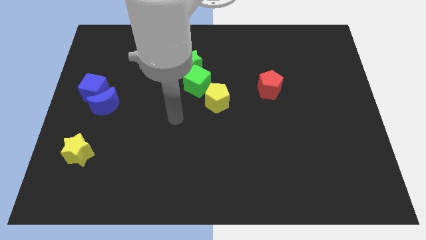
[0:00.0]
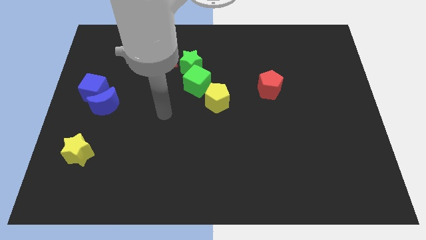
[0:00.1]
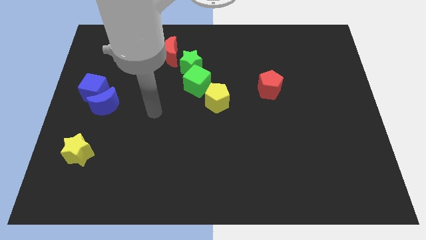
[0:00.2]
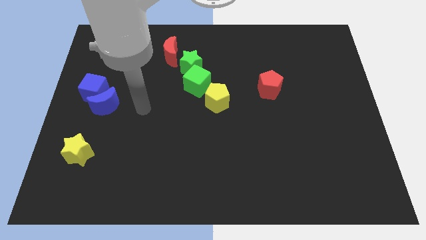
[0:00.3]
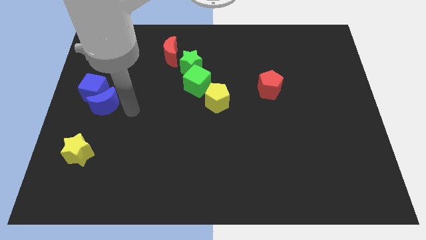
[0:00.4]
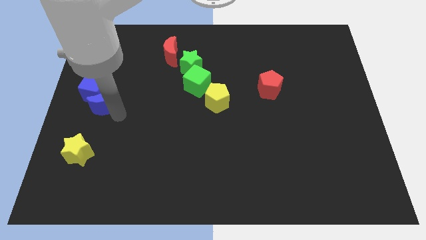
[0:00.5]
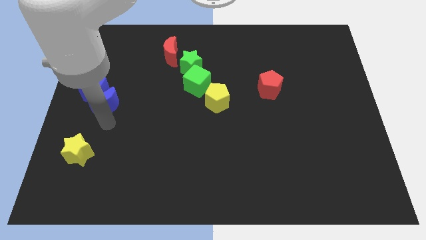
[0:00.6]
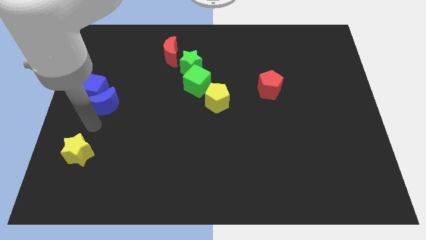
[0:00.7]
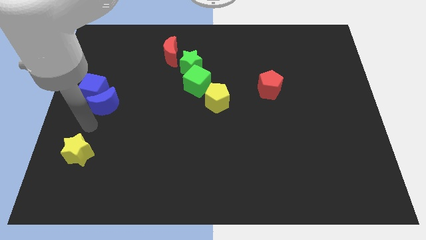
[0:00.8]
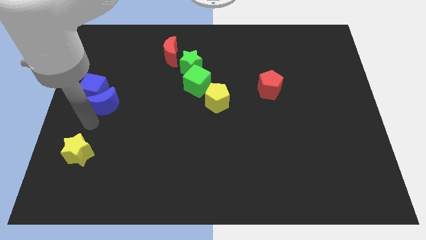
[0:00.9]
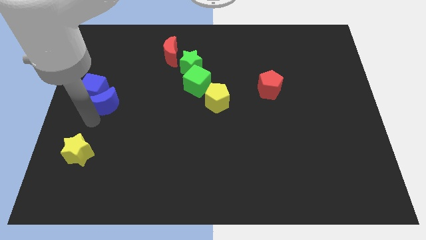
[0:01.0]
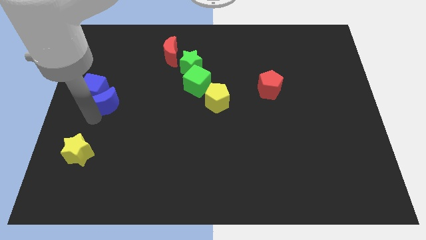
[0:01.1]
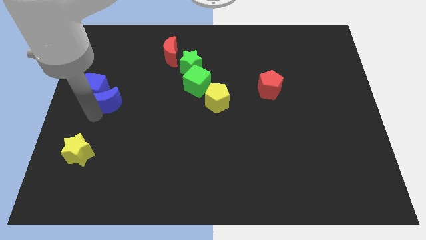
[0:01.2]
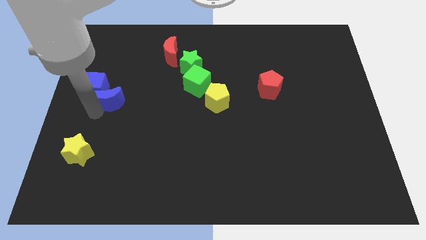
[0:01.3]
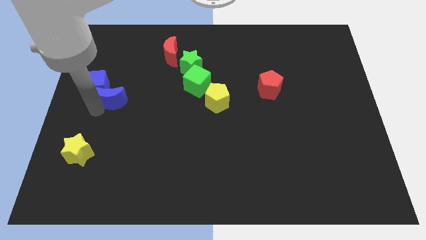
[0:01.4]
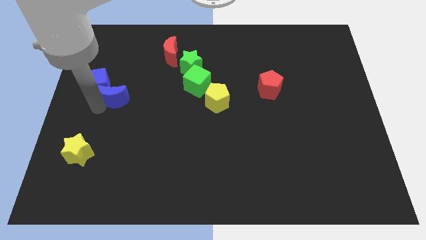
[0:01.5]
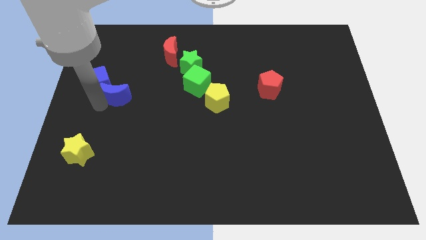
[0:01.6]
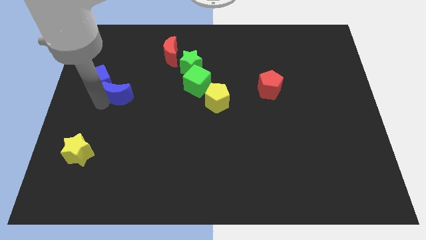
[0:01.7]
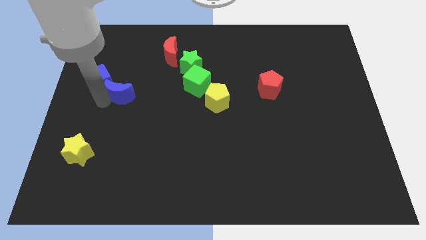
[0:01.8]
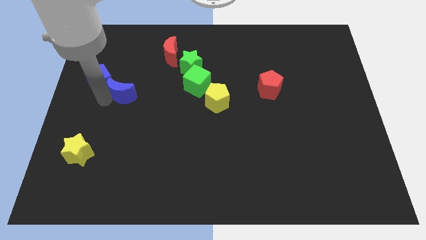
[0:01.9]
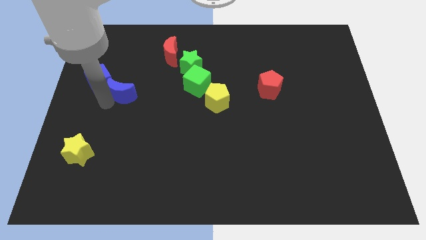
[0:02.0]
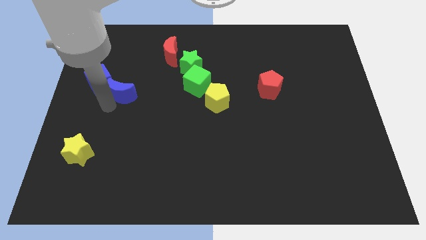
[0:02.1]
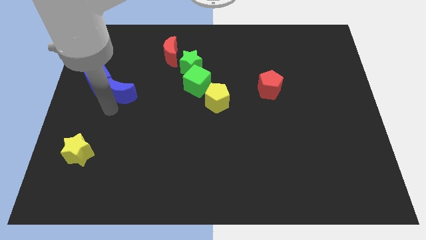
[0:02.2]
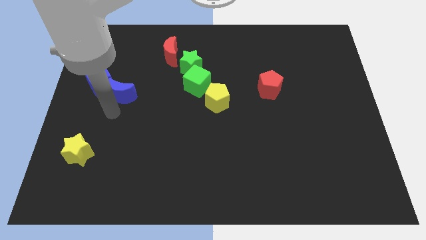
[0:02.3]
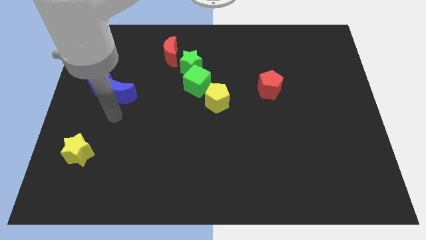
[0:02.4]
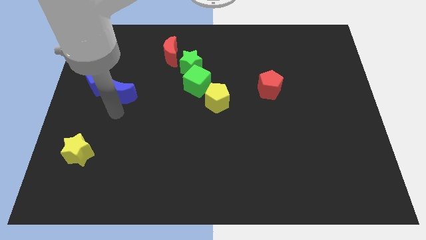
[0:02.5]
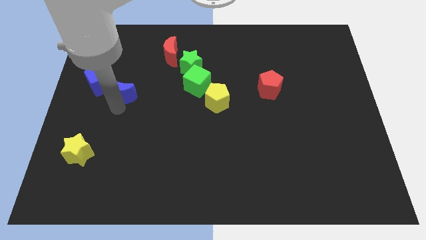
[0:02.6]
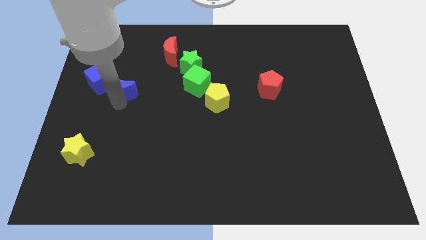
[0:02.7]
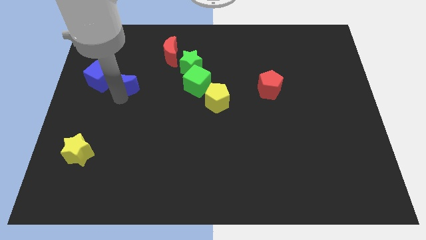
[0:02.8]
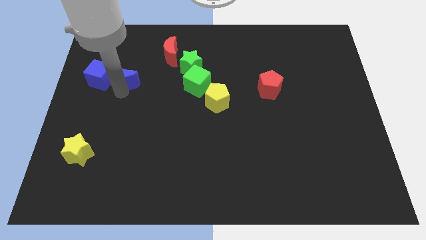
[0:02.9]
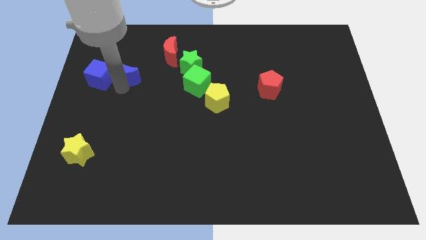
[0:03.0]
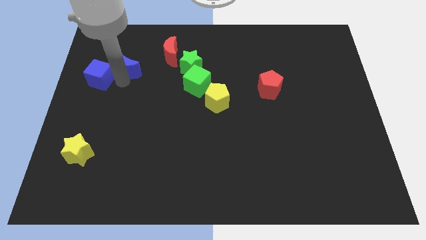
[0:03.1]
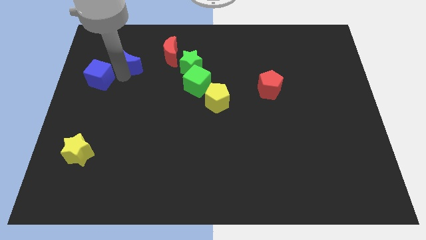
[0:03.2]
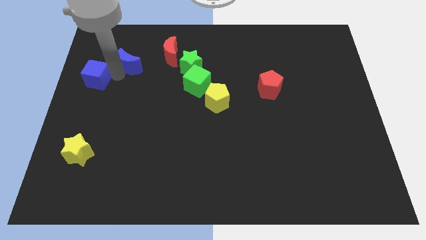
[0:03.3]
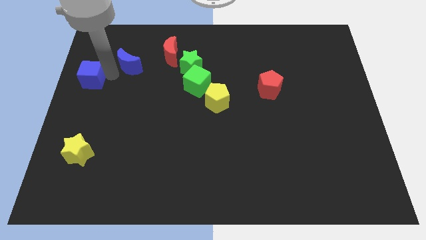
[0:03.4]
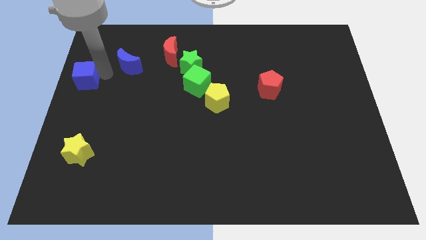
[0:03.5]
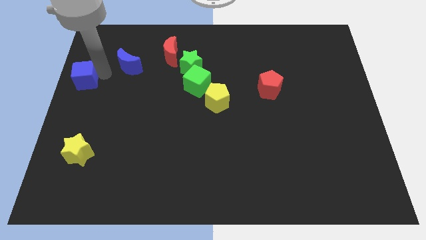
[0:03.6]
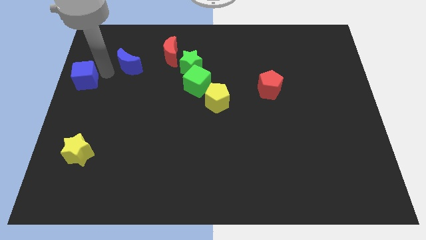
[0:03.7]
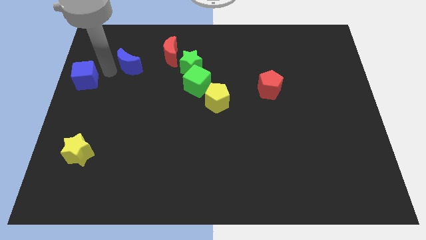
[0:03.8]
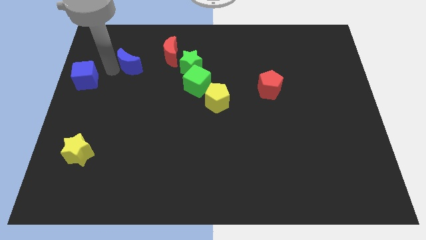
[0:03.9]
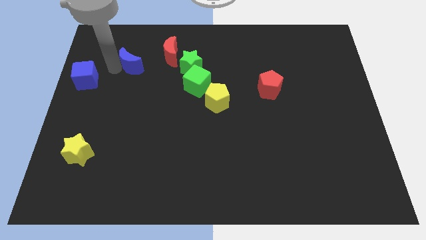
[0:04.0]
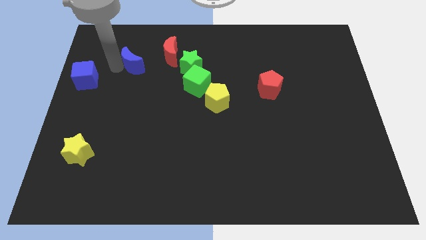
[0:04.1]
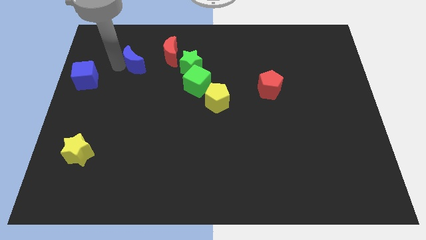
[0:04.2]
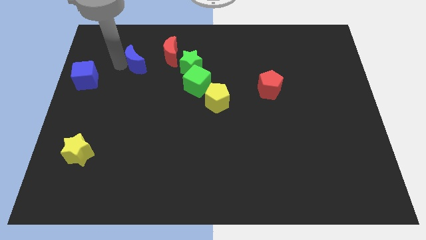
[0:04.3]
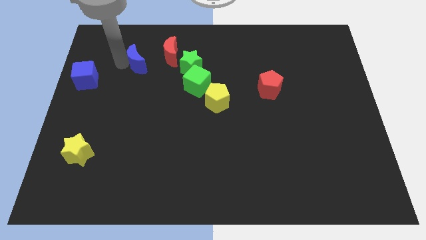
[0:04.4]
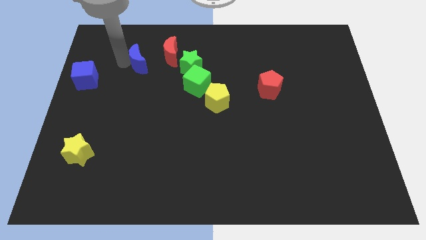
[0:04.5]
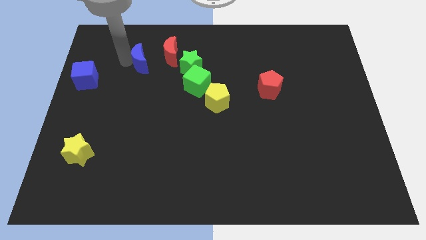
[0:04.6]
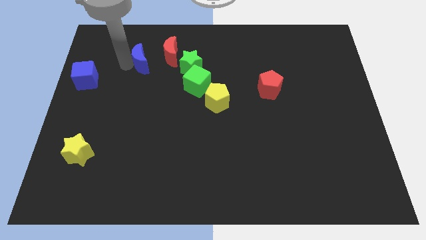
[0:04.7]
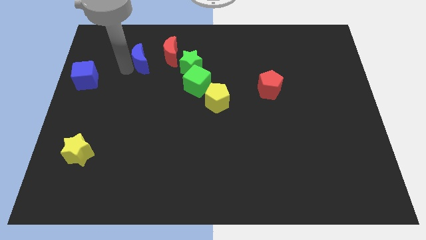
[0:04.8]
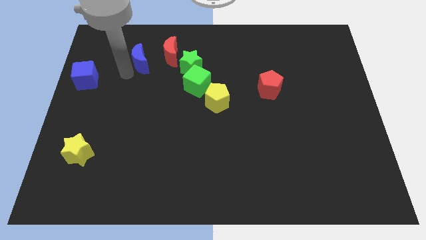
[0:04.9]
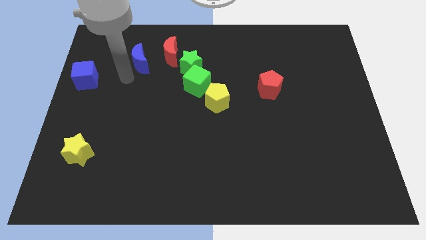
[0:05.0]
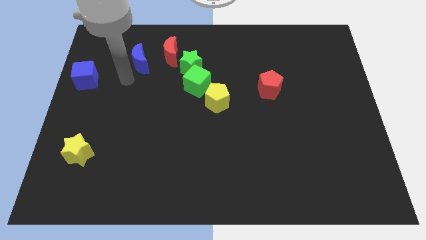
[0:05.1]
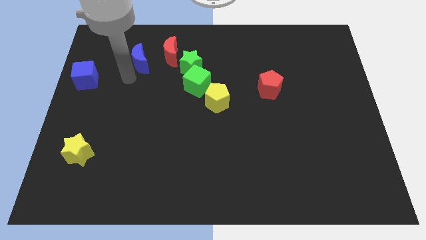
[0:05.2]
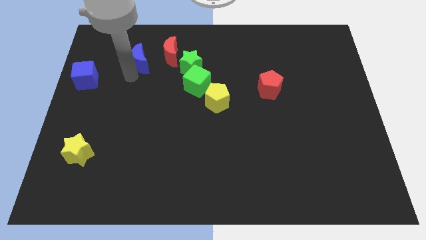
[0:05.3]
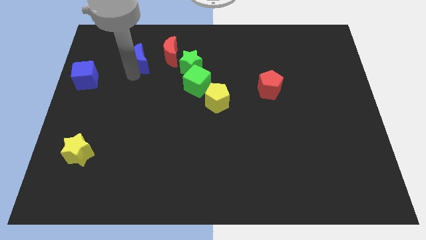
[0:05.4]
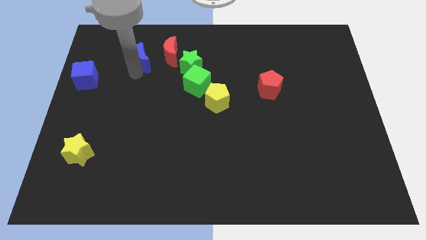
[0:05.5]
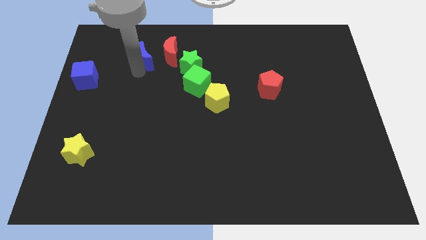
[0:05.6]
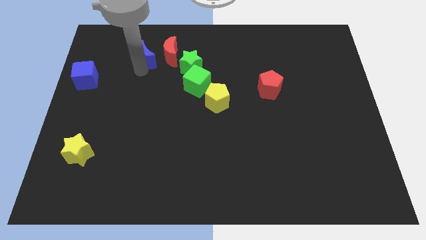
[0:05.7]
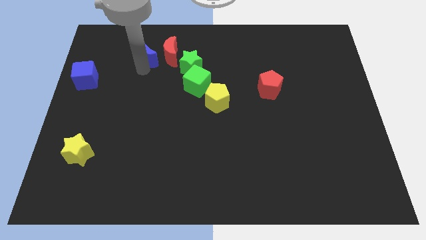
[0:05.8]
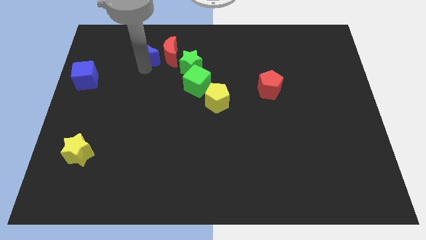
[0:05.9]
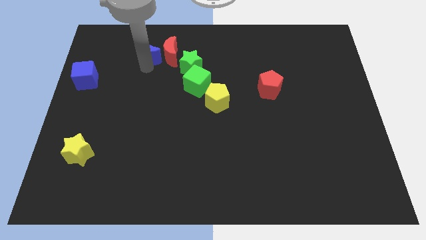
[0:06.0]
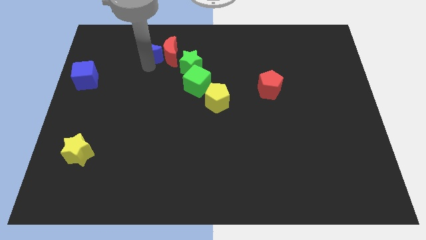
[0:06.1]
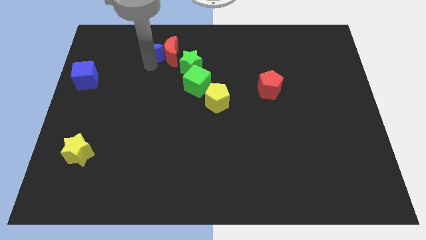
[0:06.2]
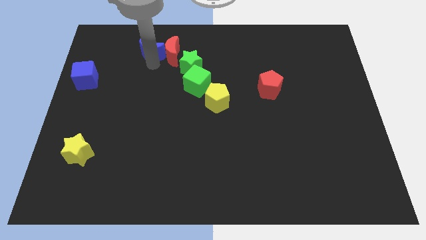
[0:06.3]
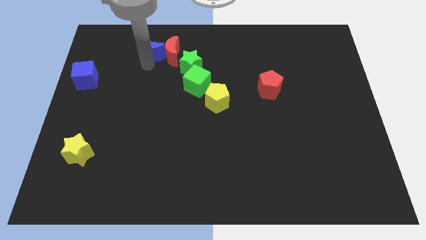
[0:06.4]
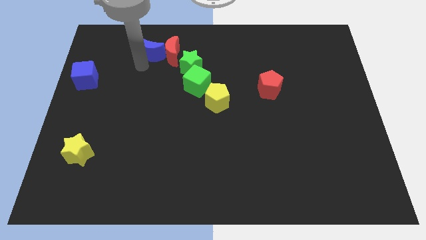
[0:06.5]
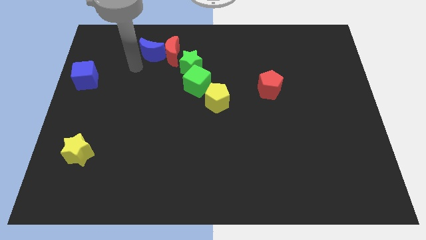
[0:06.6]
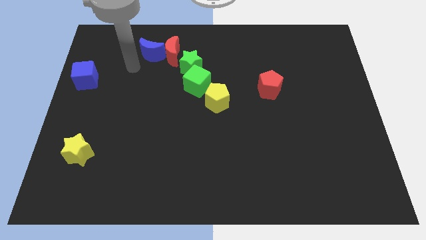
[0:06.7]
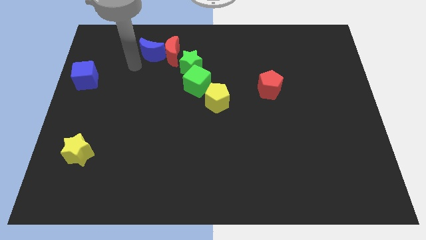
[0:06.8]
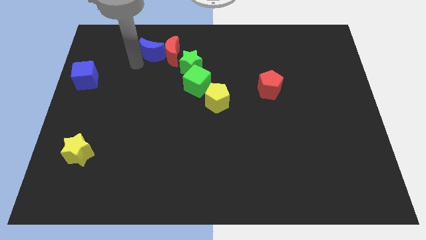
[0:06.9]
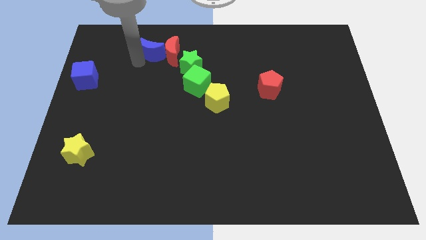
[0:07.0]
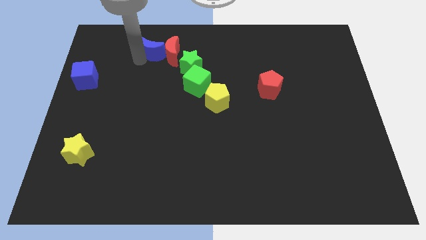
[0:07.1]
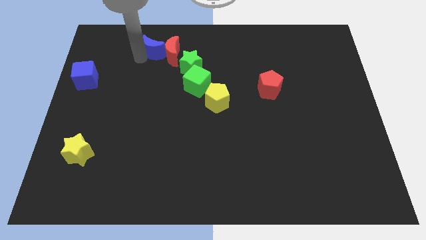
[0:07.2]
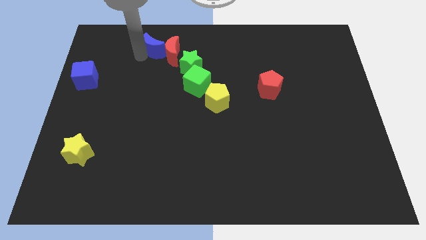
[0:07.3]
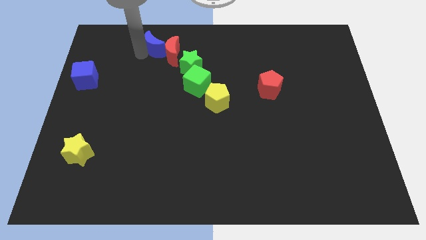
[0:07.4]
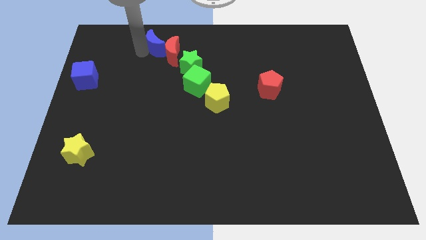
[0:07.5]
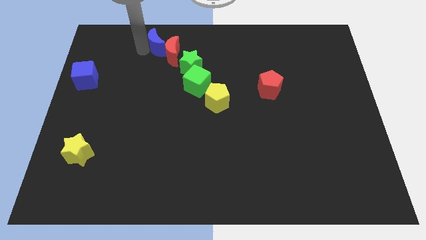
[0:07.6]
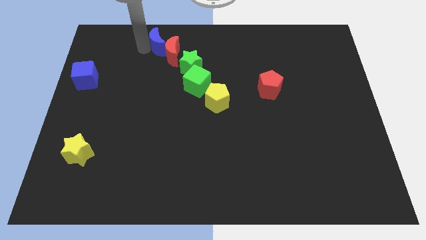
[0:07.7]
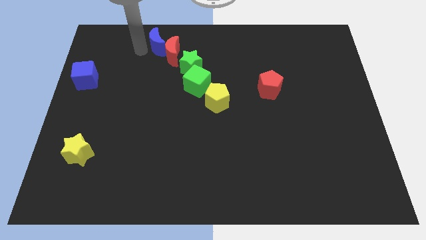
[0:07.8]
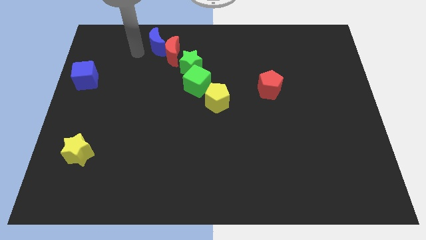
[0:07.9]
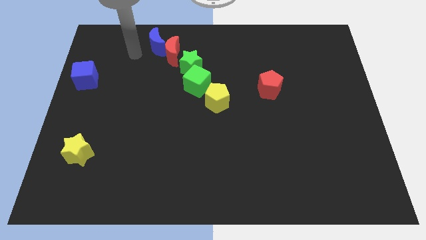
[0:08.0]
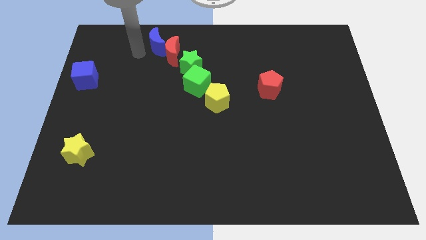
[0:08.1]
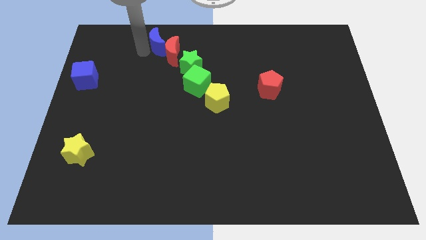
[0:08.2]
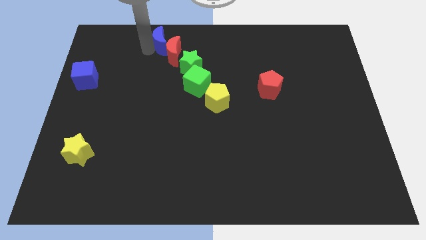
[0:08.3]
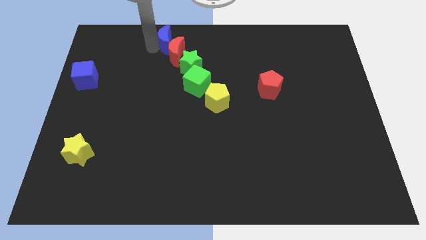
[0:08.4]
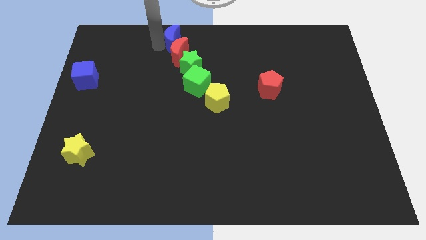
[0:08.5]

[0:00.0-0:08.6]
slide the blue moon to the top
